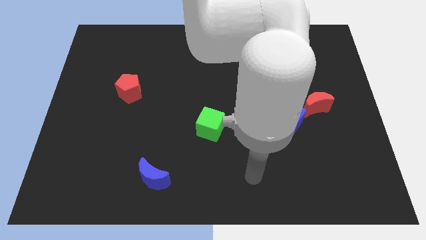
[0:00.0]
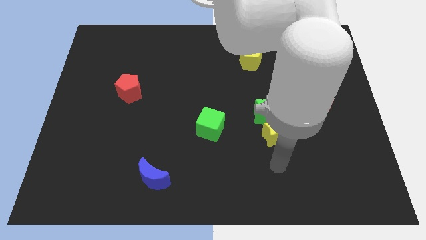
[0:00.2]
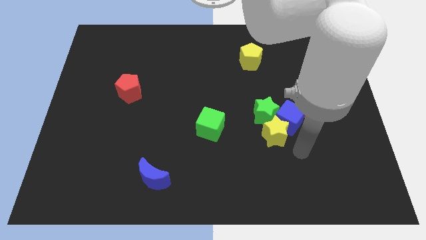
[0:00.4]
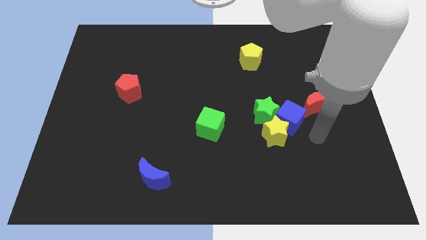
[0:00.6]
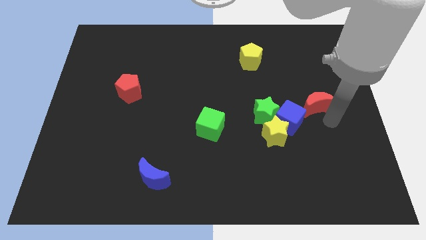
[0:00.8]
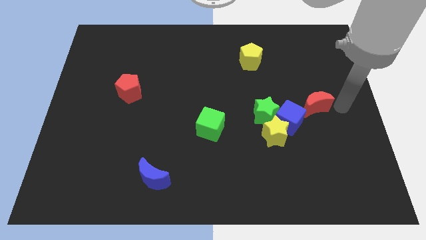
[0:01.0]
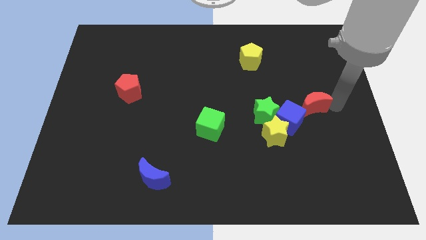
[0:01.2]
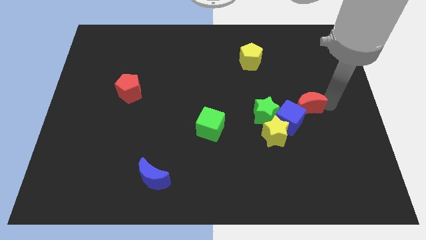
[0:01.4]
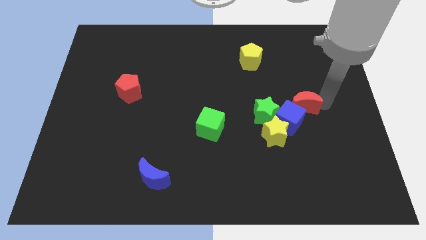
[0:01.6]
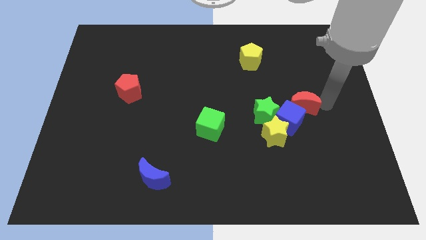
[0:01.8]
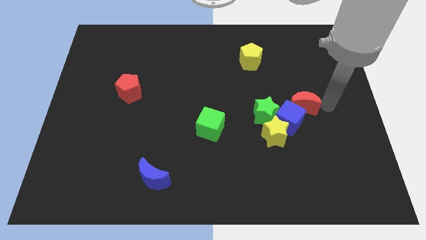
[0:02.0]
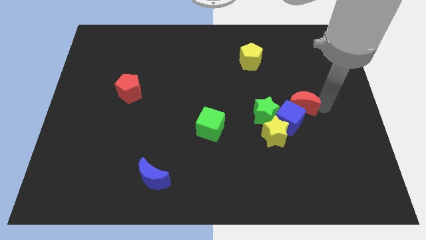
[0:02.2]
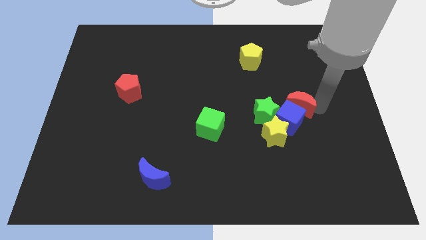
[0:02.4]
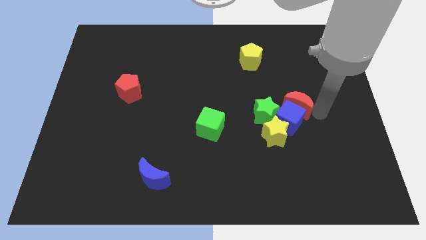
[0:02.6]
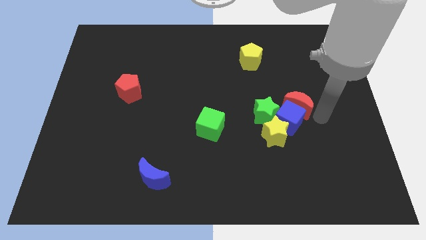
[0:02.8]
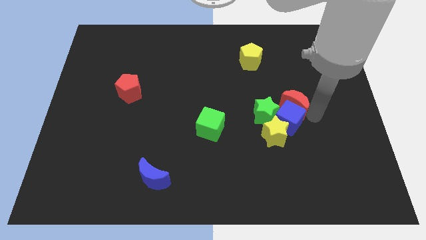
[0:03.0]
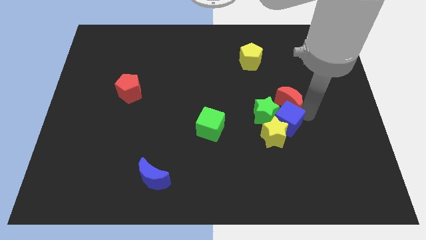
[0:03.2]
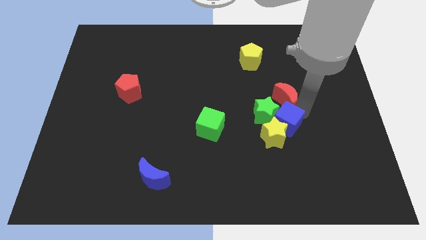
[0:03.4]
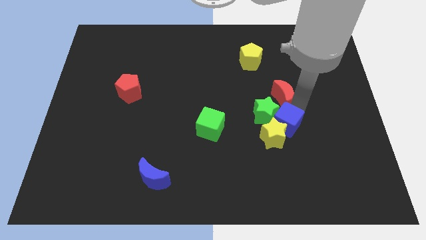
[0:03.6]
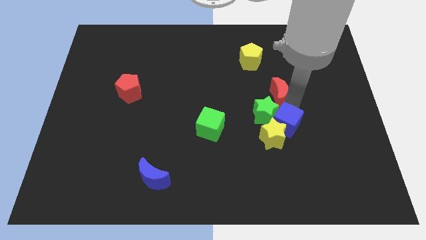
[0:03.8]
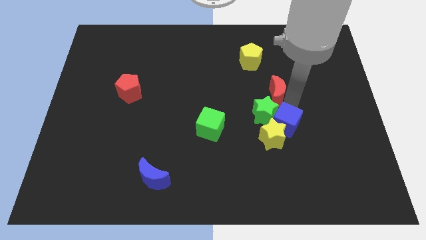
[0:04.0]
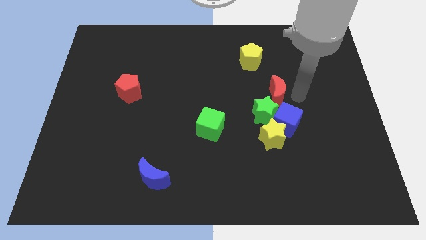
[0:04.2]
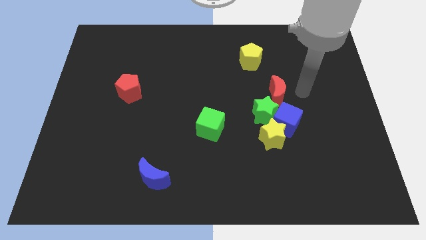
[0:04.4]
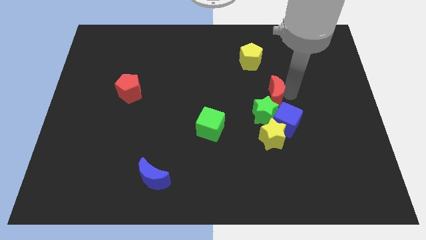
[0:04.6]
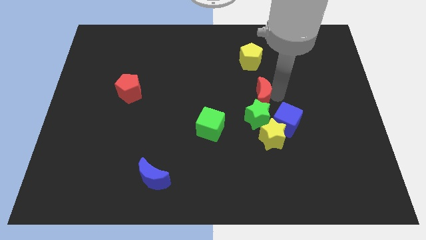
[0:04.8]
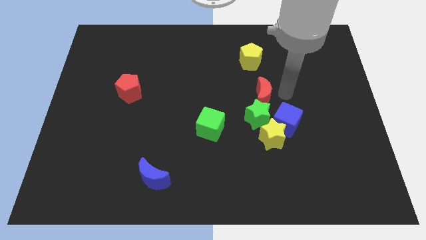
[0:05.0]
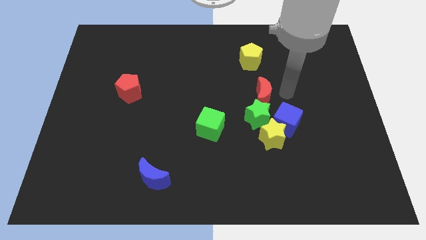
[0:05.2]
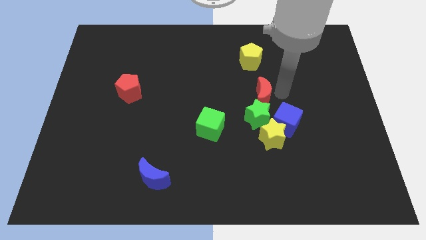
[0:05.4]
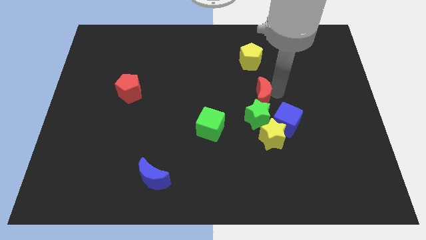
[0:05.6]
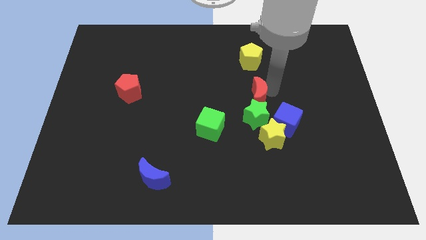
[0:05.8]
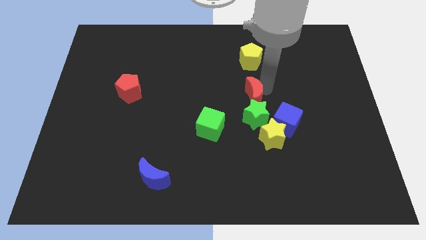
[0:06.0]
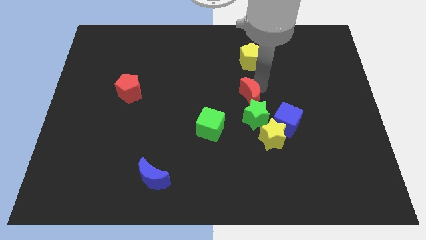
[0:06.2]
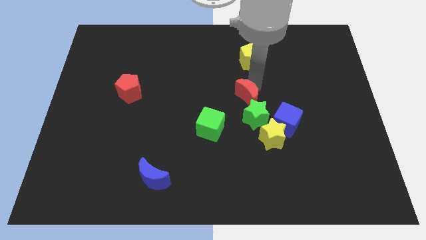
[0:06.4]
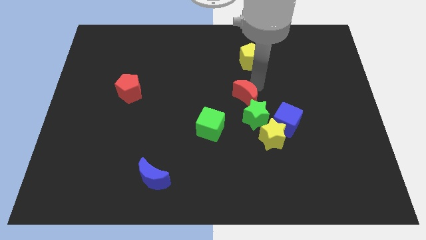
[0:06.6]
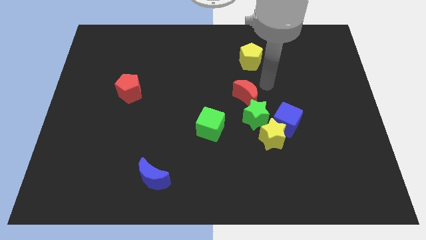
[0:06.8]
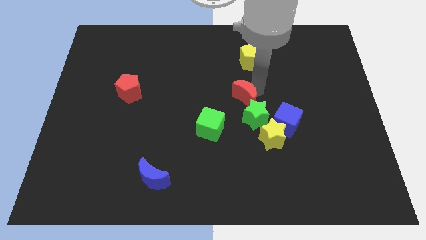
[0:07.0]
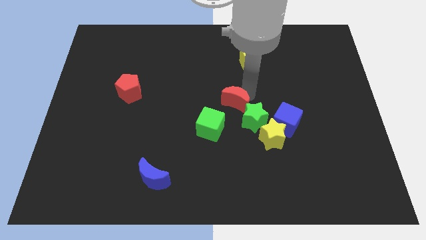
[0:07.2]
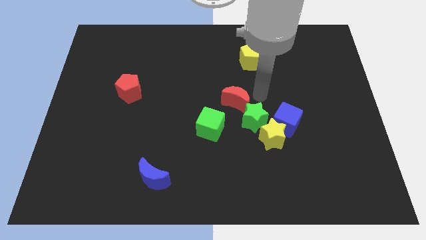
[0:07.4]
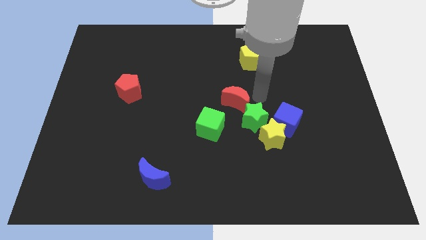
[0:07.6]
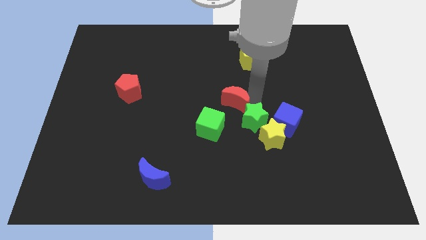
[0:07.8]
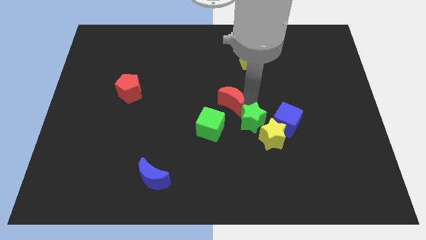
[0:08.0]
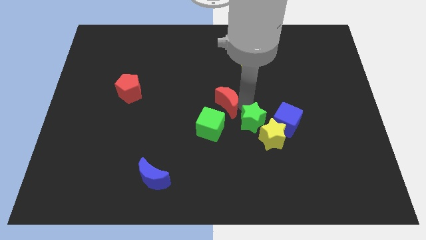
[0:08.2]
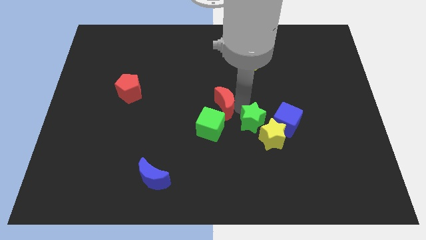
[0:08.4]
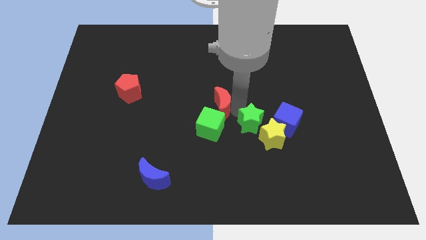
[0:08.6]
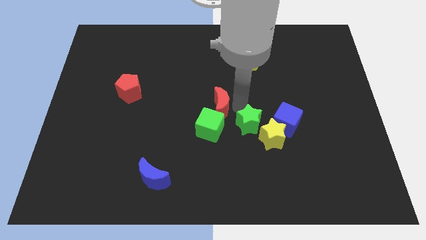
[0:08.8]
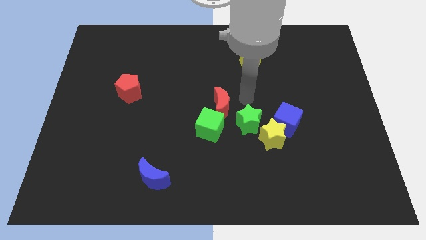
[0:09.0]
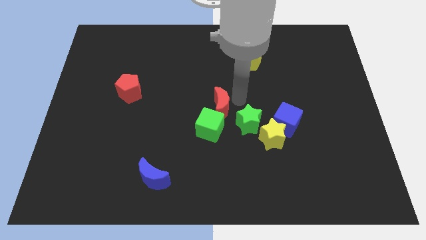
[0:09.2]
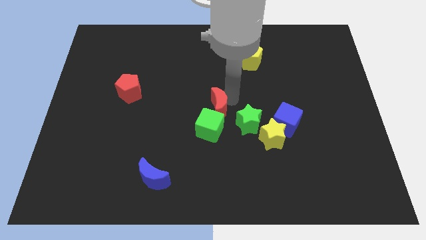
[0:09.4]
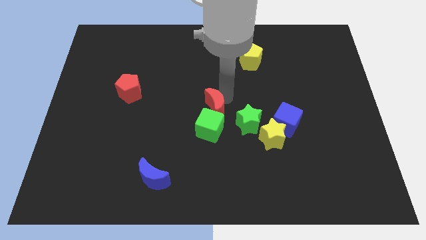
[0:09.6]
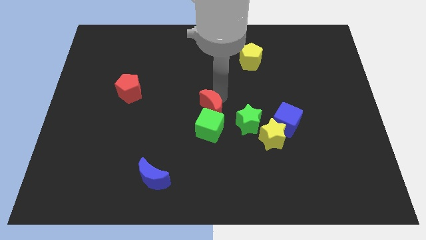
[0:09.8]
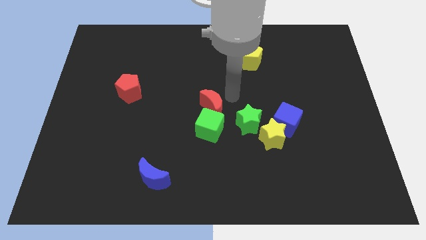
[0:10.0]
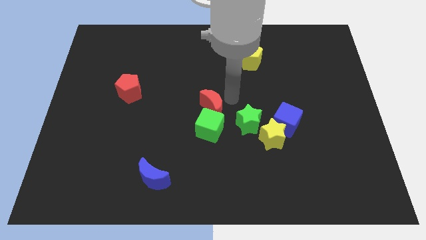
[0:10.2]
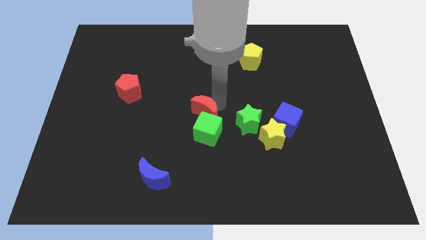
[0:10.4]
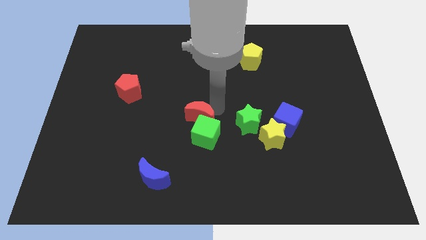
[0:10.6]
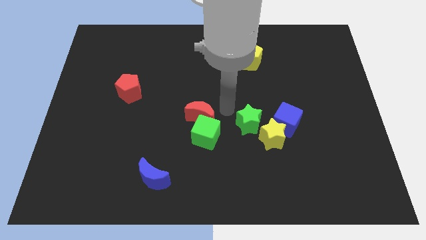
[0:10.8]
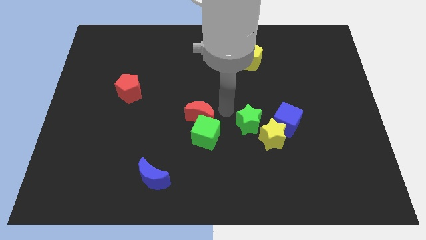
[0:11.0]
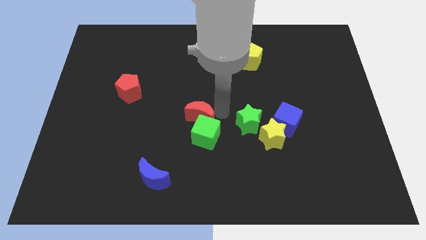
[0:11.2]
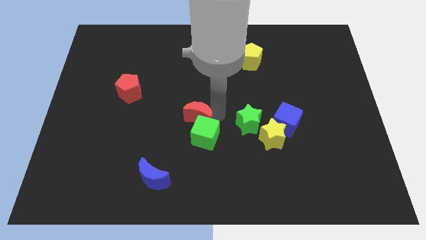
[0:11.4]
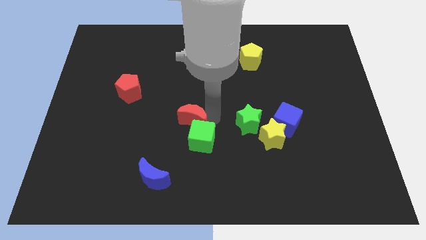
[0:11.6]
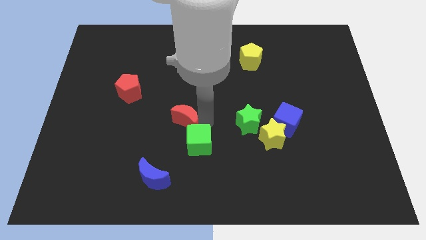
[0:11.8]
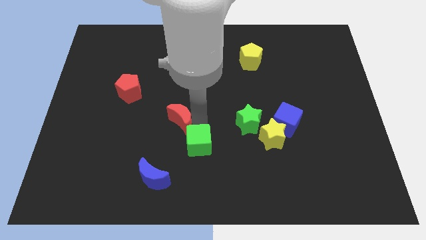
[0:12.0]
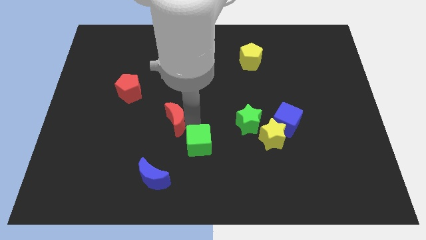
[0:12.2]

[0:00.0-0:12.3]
put the red moon above the blue moon
